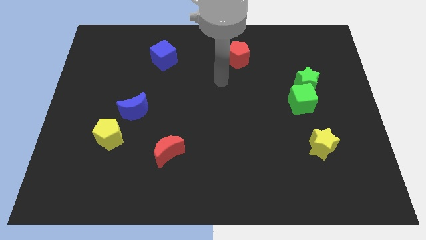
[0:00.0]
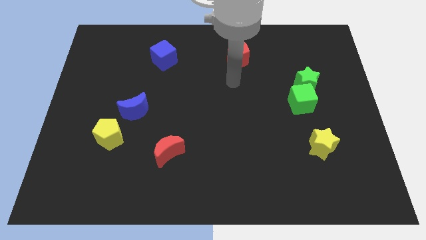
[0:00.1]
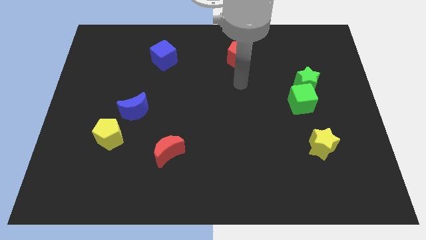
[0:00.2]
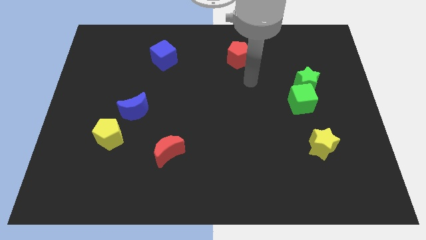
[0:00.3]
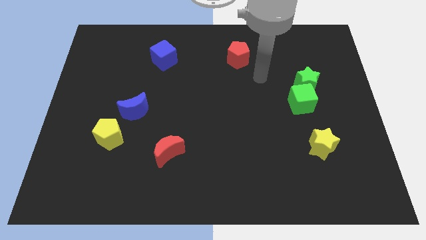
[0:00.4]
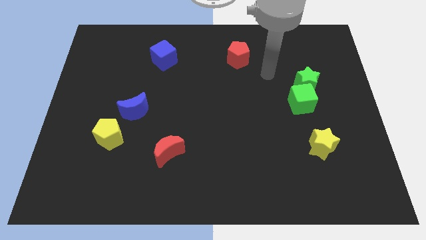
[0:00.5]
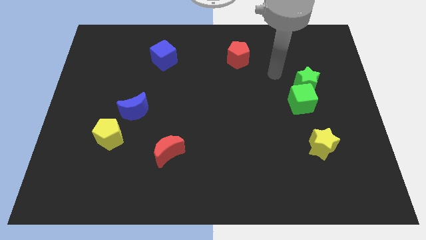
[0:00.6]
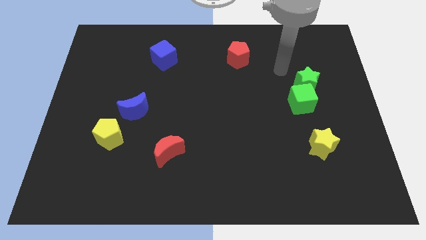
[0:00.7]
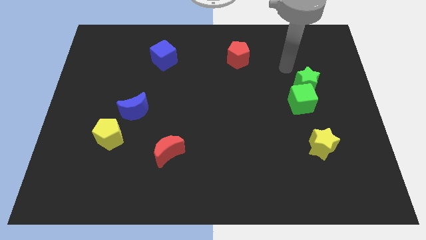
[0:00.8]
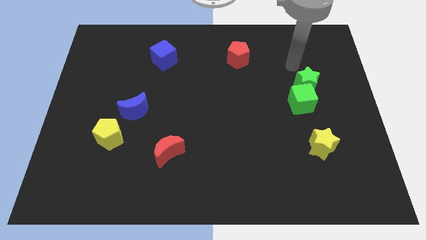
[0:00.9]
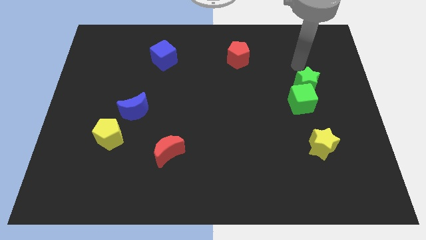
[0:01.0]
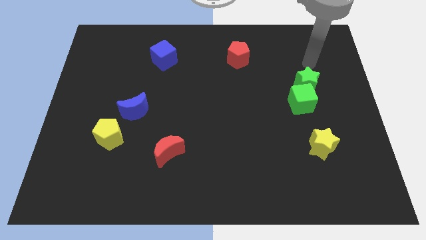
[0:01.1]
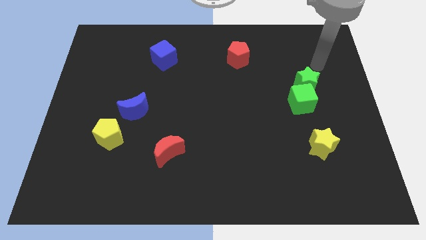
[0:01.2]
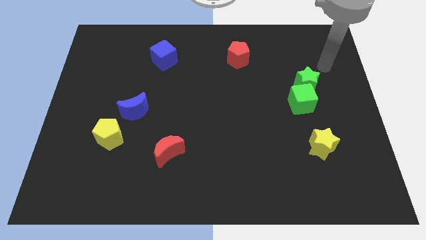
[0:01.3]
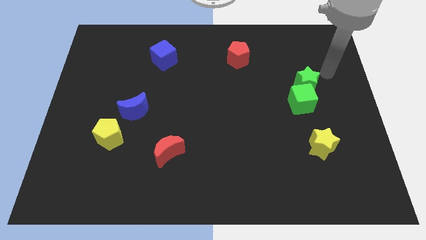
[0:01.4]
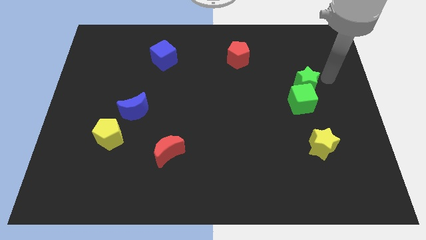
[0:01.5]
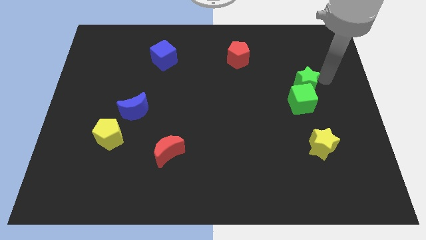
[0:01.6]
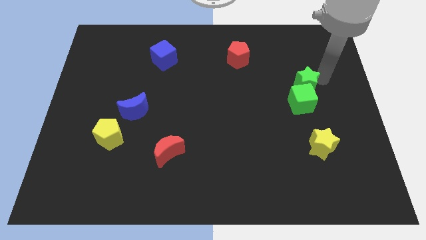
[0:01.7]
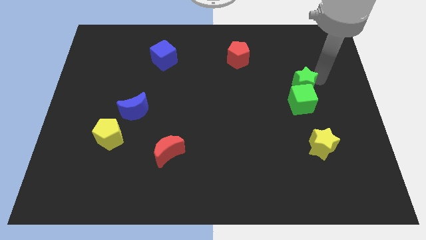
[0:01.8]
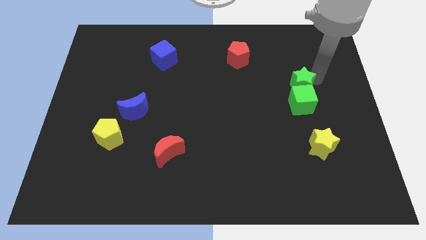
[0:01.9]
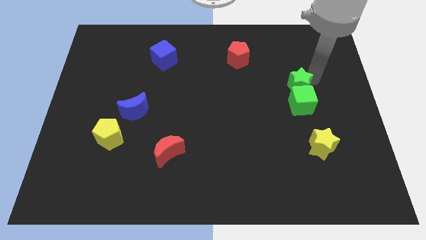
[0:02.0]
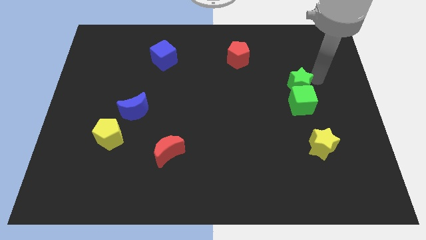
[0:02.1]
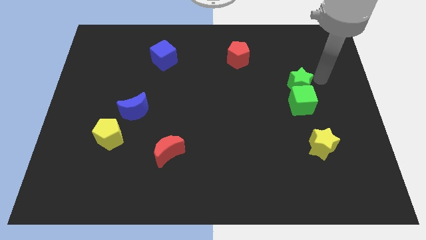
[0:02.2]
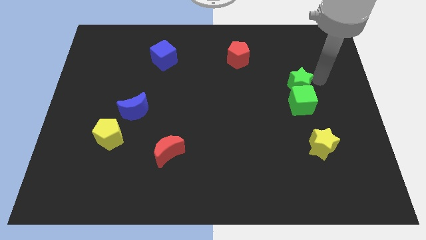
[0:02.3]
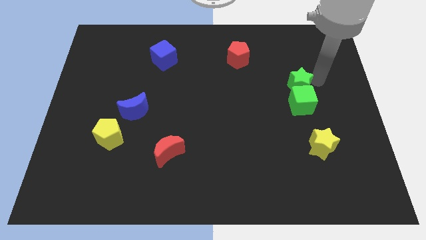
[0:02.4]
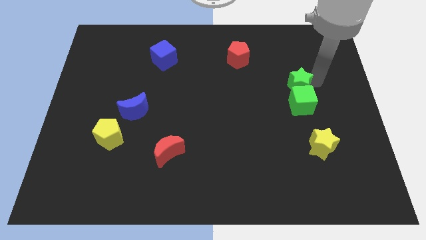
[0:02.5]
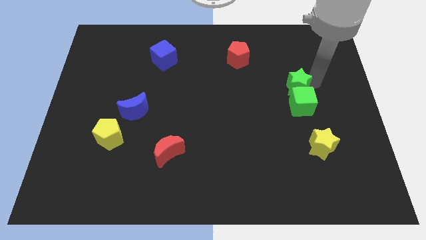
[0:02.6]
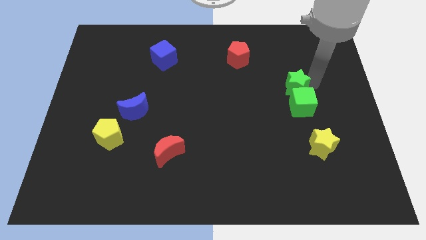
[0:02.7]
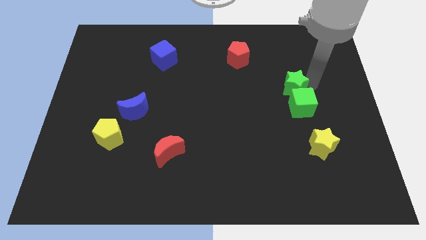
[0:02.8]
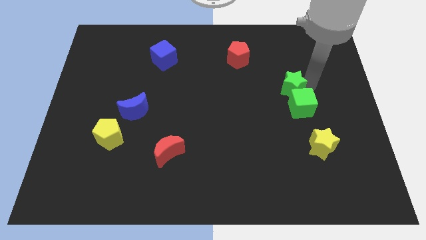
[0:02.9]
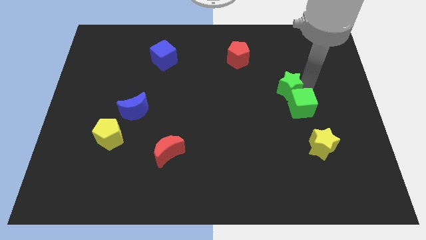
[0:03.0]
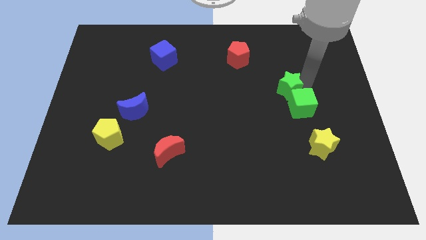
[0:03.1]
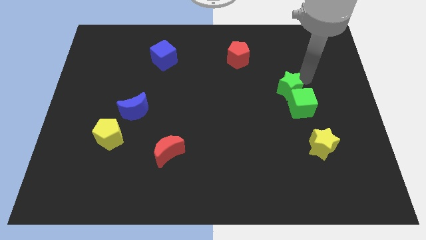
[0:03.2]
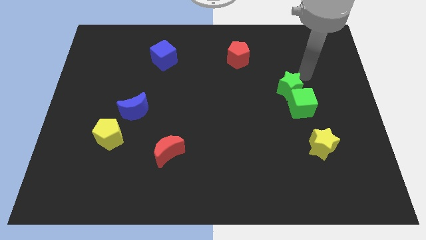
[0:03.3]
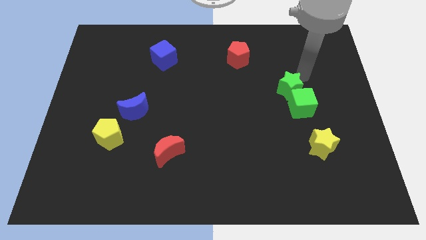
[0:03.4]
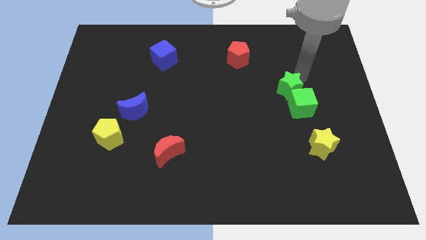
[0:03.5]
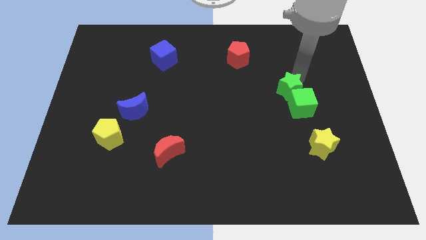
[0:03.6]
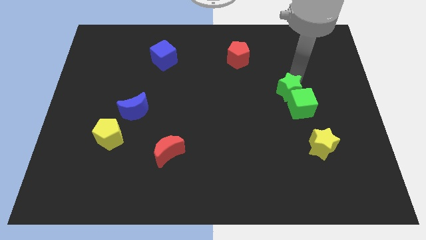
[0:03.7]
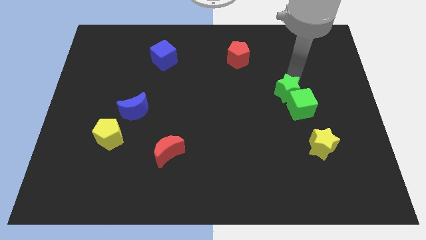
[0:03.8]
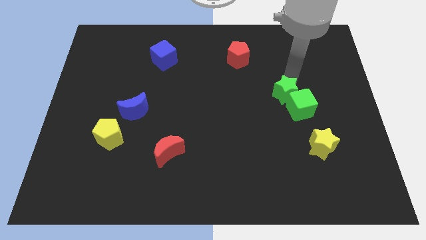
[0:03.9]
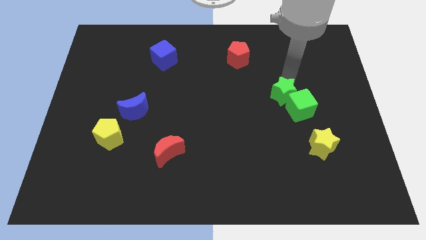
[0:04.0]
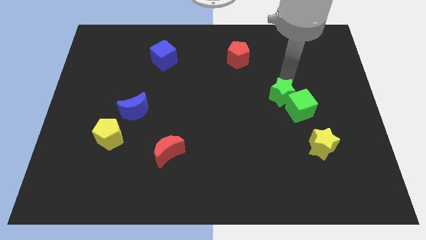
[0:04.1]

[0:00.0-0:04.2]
move the green star downwards and to the left diagonally a bit

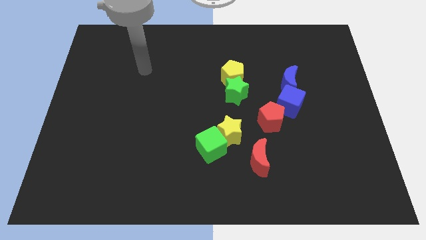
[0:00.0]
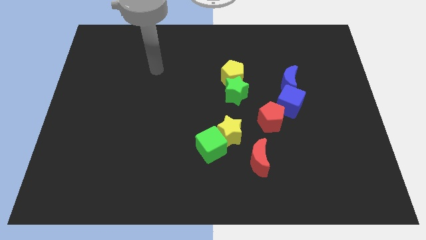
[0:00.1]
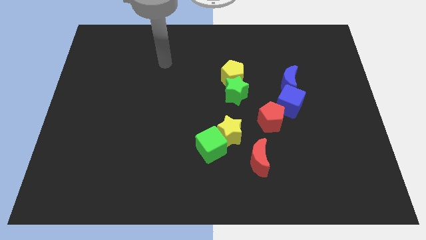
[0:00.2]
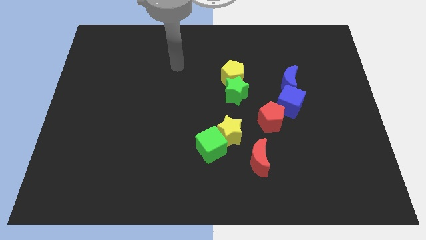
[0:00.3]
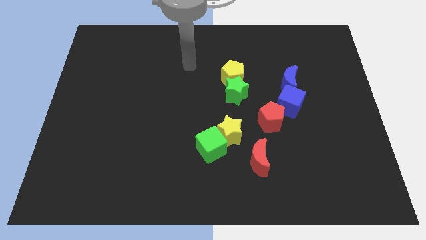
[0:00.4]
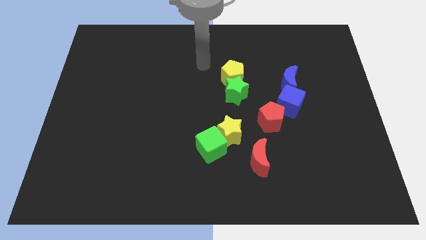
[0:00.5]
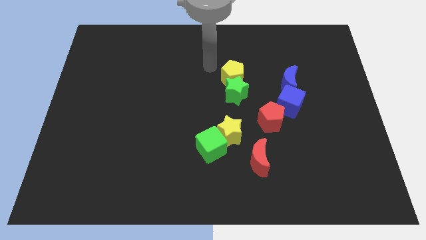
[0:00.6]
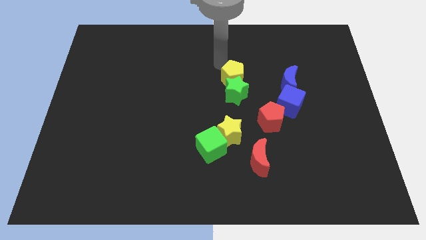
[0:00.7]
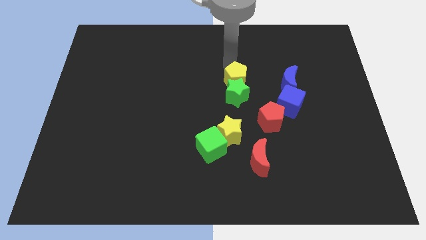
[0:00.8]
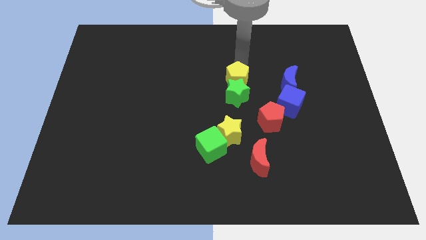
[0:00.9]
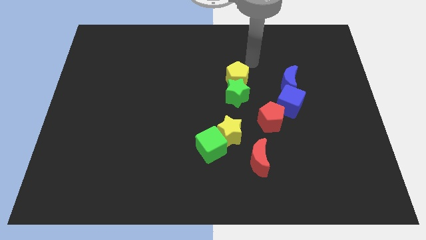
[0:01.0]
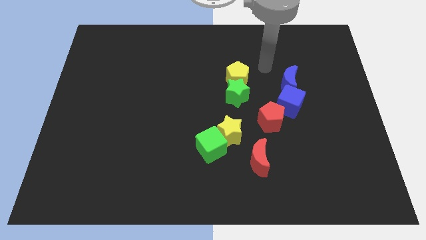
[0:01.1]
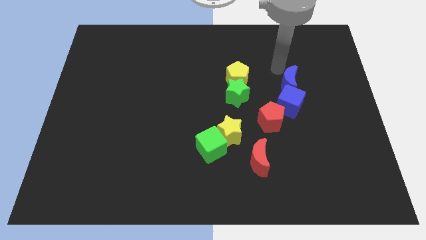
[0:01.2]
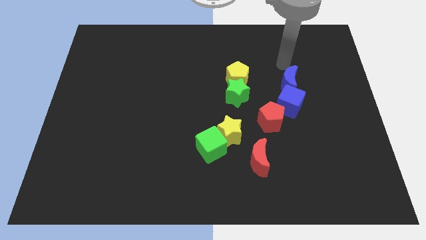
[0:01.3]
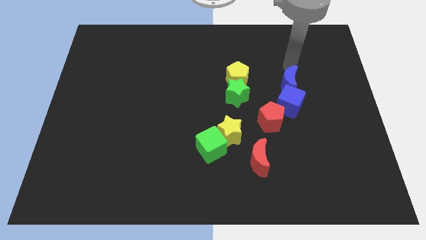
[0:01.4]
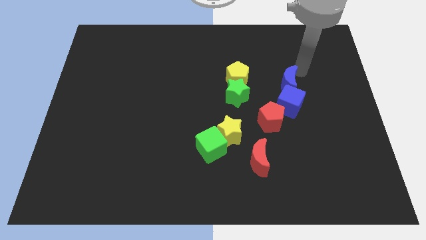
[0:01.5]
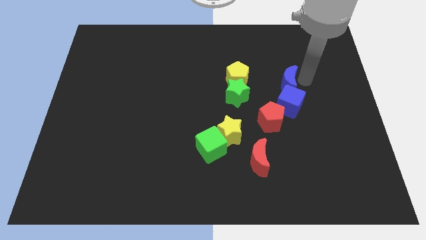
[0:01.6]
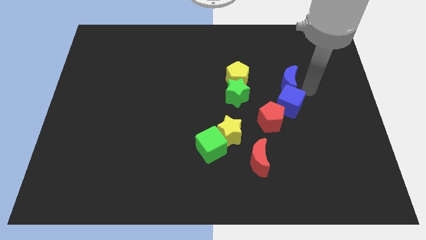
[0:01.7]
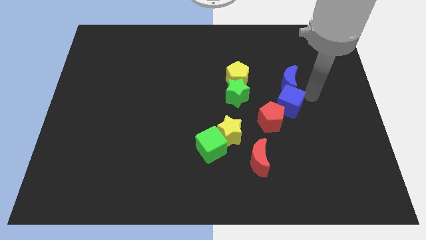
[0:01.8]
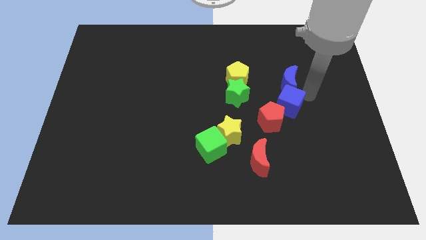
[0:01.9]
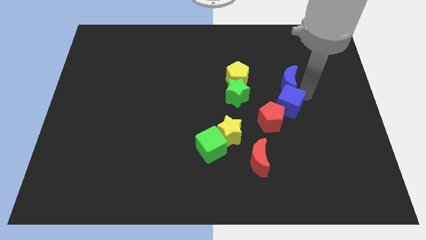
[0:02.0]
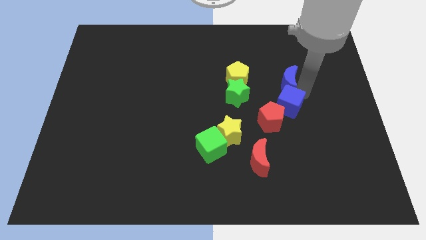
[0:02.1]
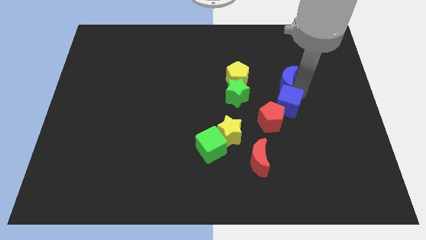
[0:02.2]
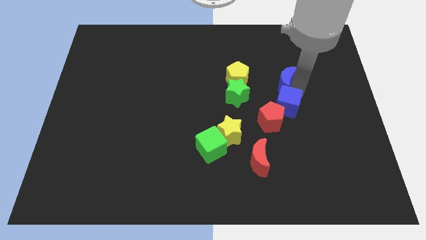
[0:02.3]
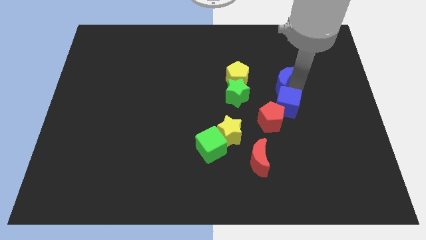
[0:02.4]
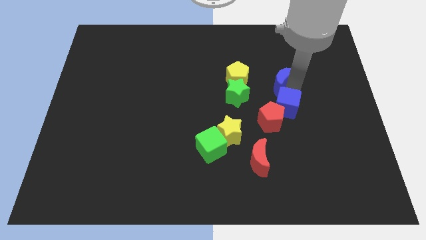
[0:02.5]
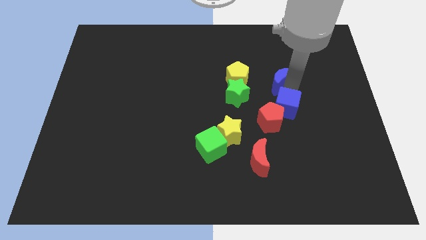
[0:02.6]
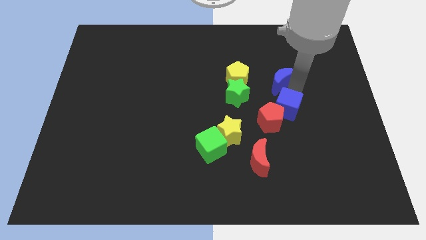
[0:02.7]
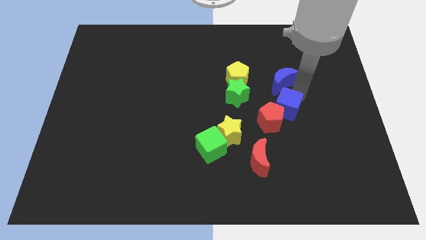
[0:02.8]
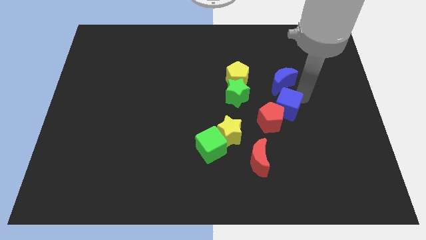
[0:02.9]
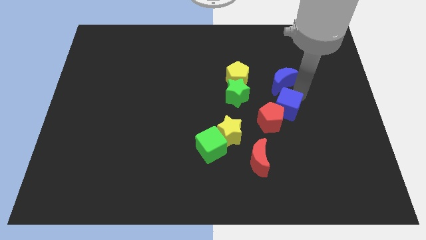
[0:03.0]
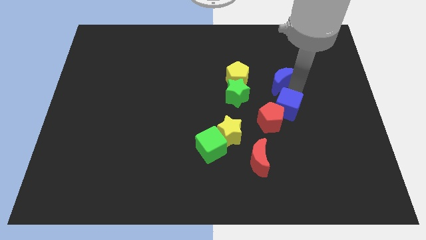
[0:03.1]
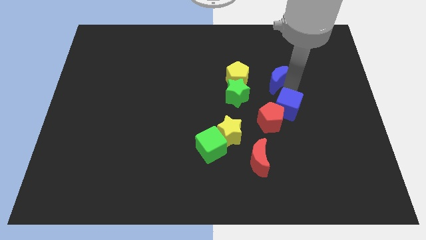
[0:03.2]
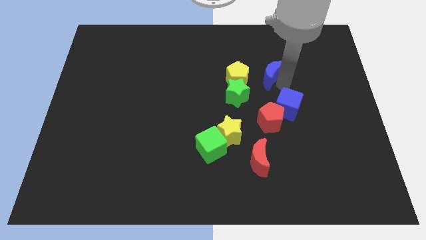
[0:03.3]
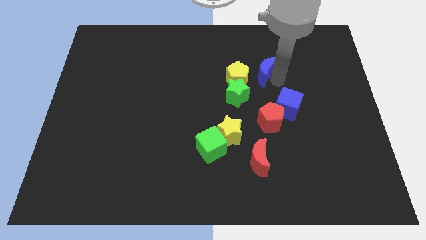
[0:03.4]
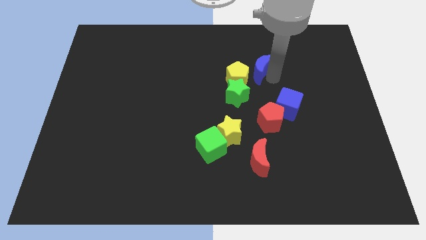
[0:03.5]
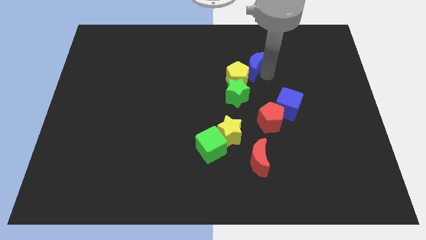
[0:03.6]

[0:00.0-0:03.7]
move the blue moon to the left a little
